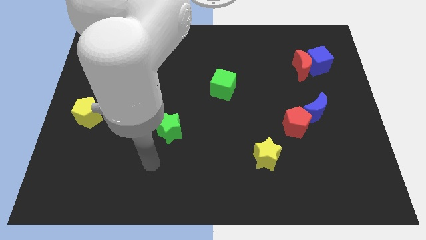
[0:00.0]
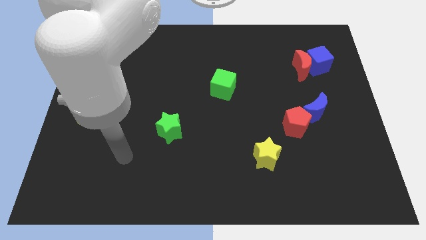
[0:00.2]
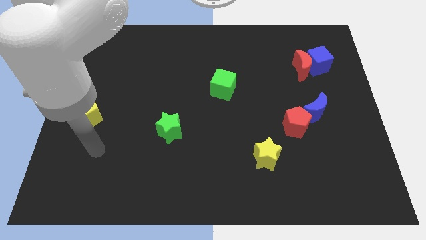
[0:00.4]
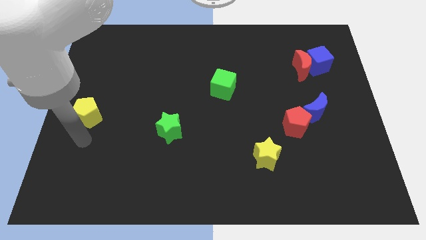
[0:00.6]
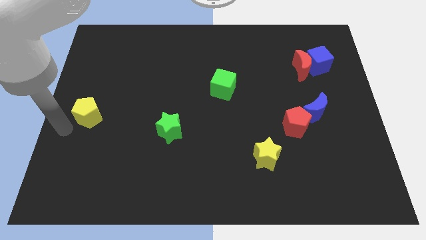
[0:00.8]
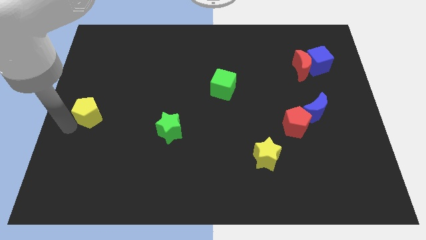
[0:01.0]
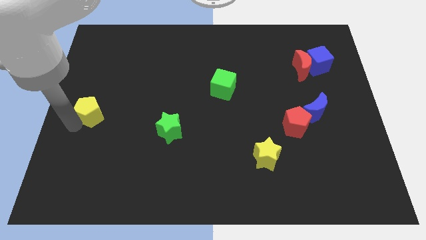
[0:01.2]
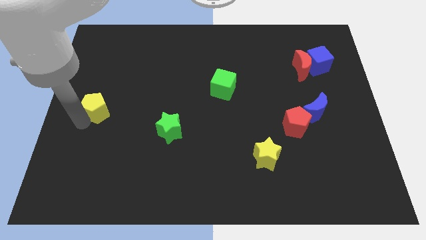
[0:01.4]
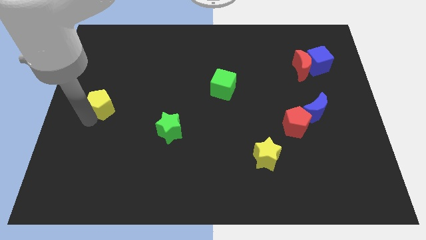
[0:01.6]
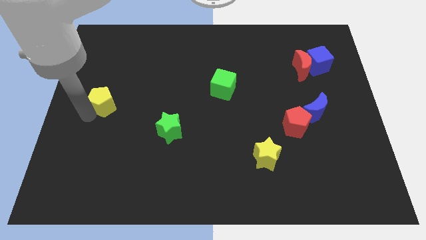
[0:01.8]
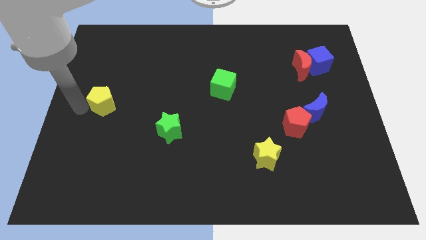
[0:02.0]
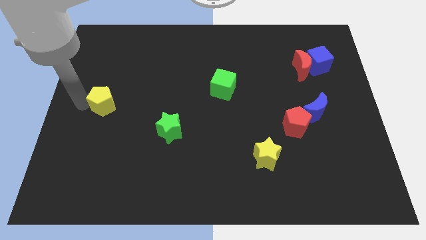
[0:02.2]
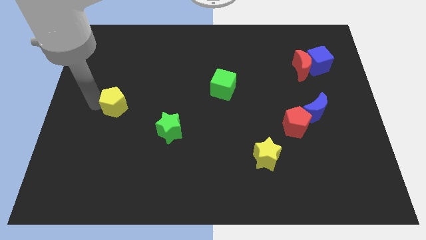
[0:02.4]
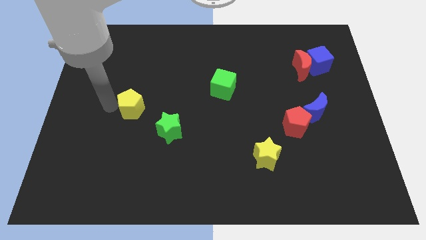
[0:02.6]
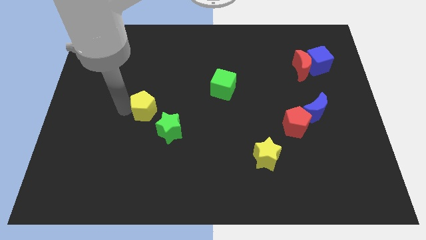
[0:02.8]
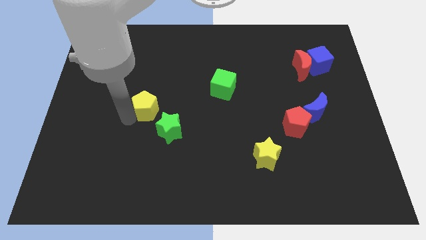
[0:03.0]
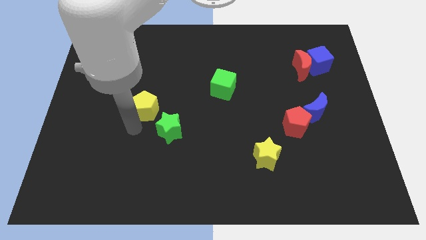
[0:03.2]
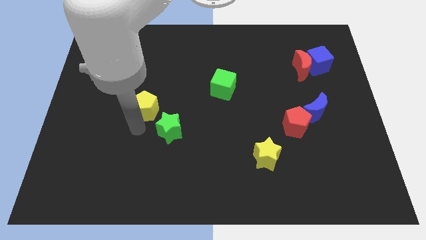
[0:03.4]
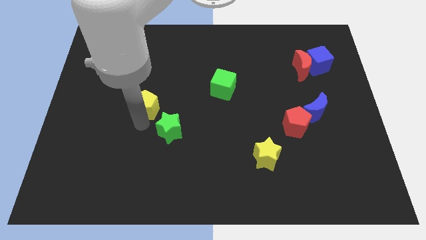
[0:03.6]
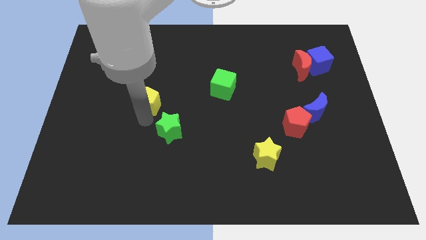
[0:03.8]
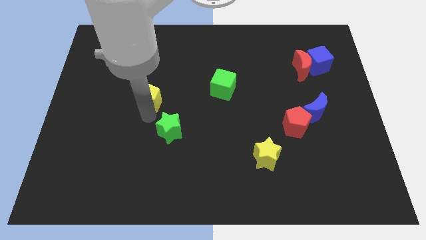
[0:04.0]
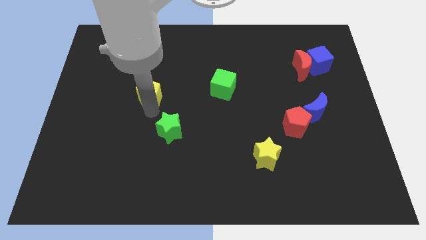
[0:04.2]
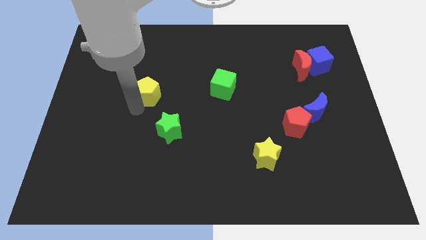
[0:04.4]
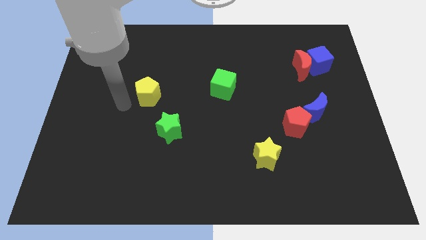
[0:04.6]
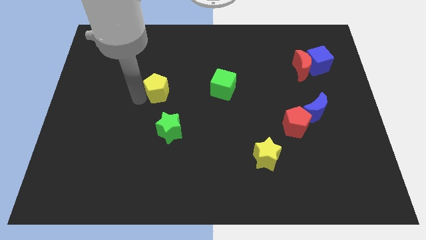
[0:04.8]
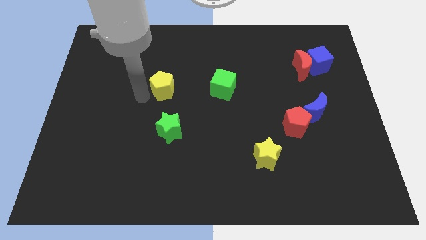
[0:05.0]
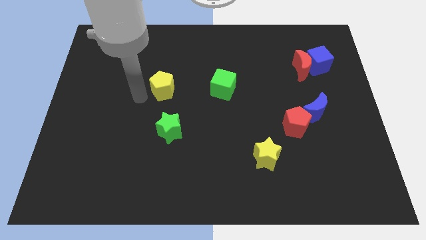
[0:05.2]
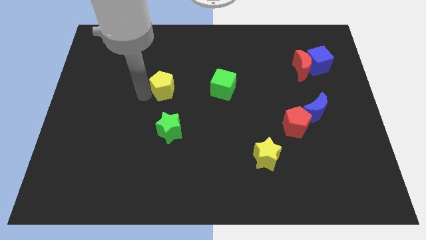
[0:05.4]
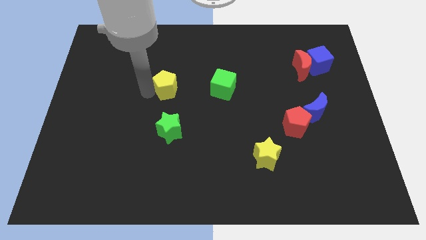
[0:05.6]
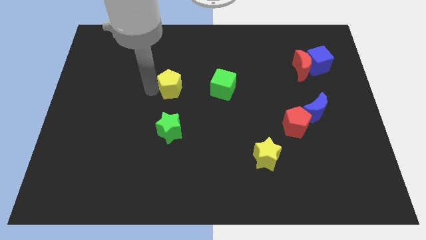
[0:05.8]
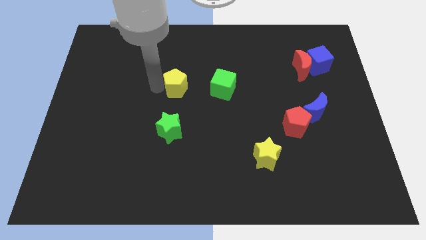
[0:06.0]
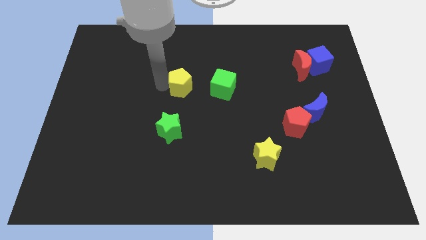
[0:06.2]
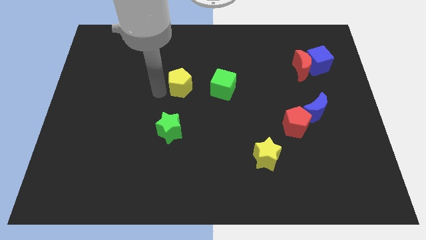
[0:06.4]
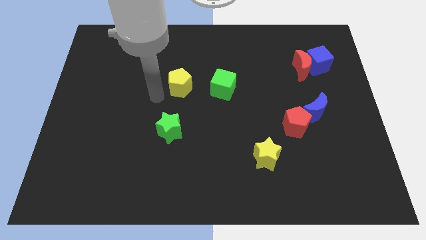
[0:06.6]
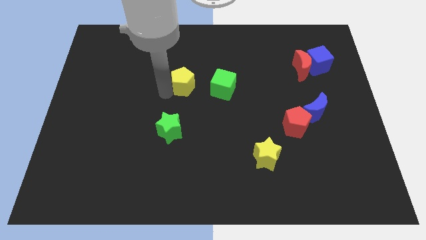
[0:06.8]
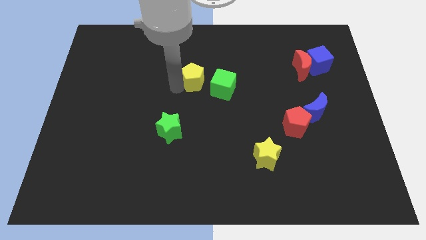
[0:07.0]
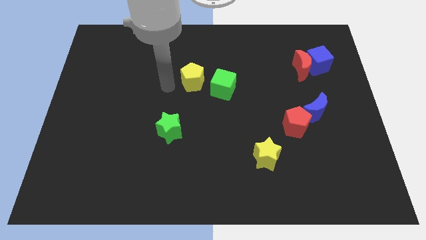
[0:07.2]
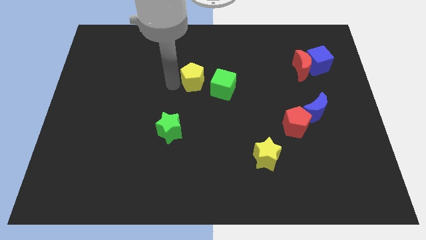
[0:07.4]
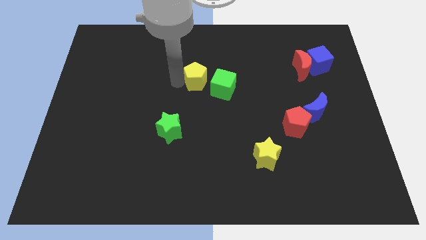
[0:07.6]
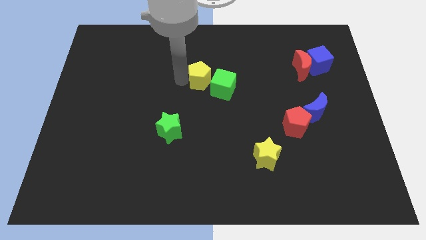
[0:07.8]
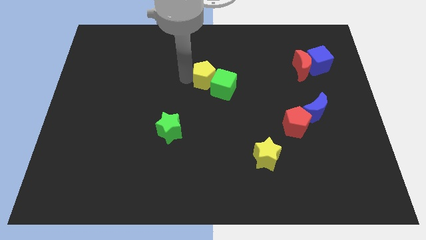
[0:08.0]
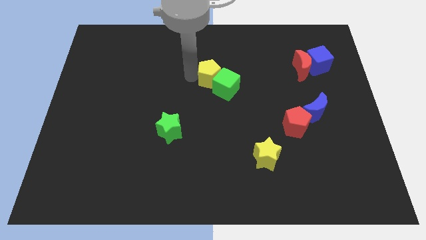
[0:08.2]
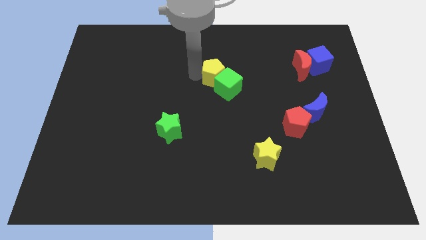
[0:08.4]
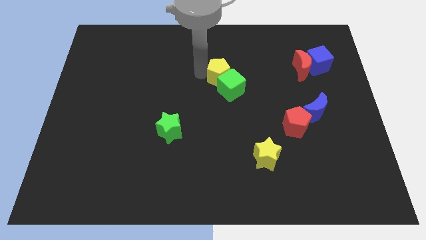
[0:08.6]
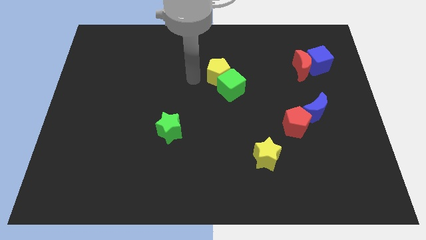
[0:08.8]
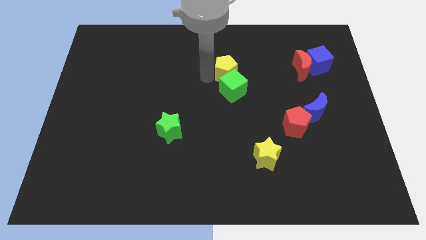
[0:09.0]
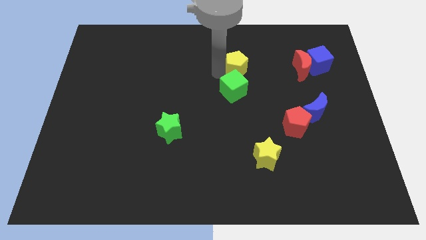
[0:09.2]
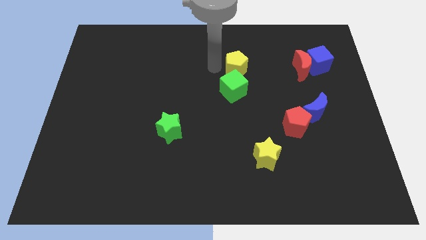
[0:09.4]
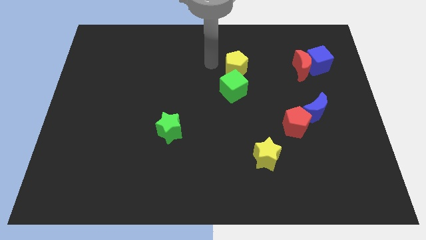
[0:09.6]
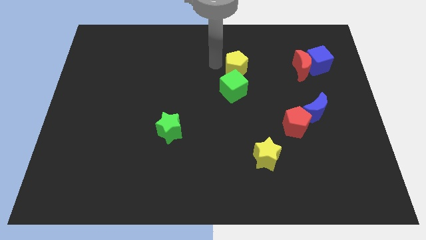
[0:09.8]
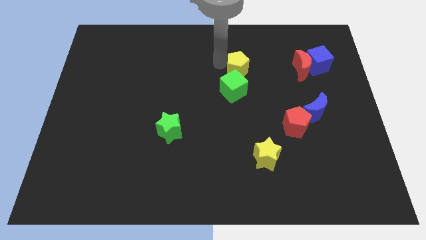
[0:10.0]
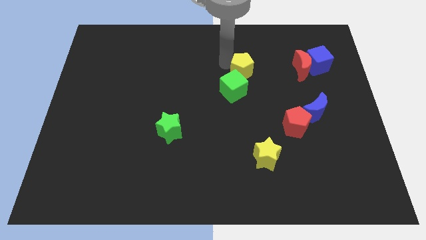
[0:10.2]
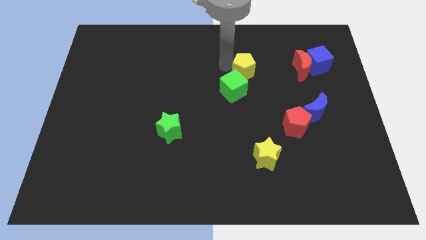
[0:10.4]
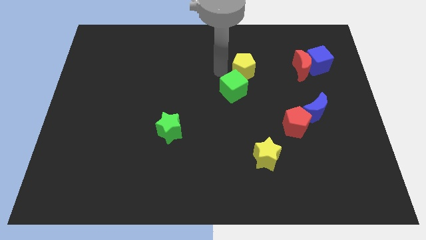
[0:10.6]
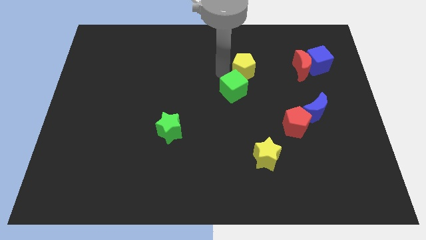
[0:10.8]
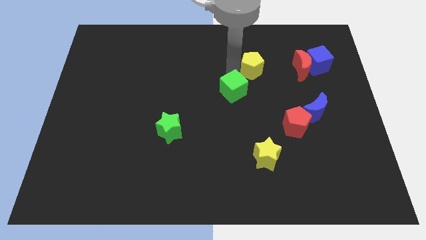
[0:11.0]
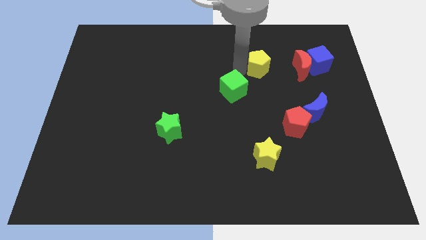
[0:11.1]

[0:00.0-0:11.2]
slide the yellow pentagon to the left side of the blue cube

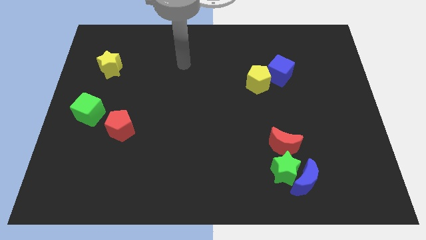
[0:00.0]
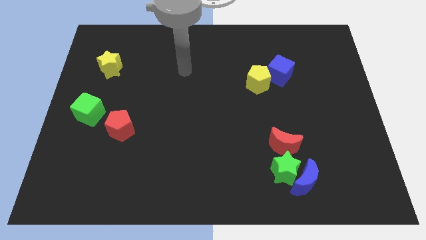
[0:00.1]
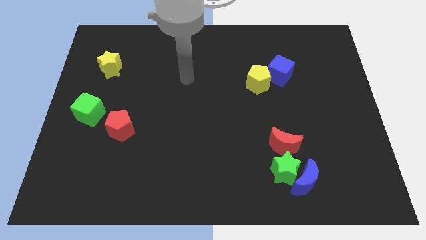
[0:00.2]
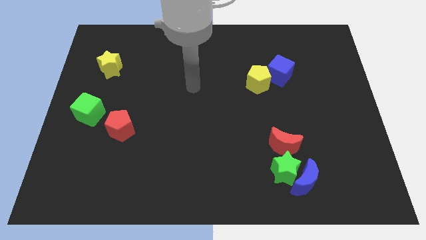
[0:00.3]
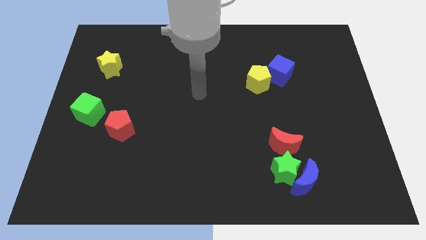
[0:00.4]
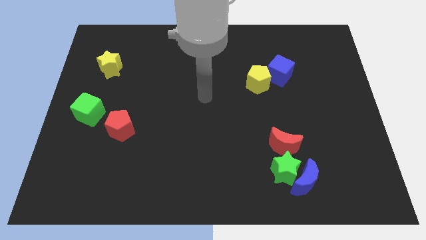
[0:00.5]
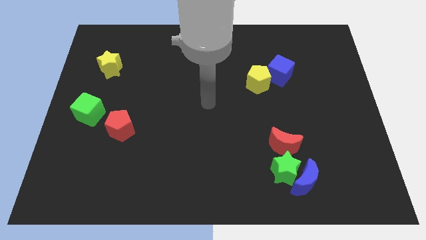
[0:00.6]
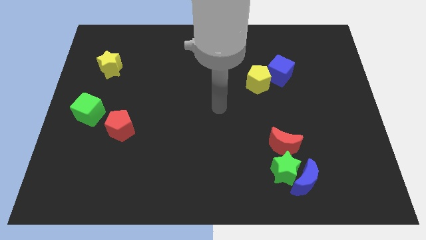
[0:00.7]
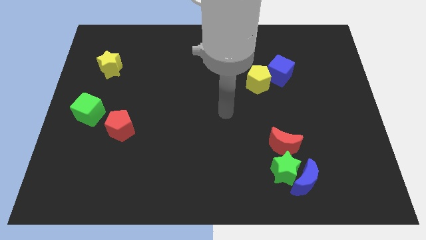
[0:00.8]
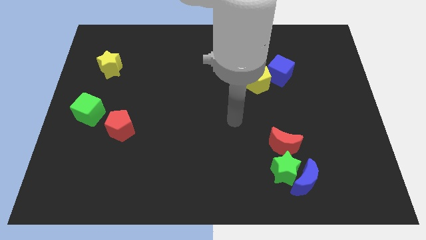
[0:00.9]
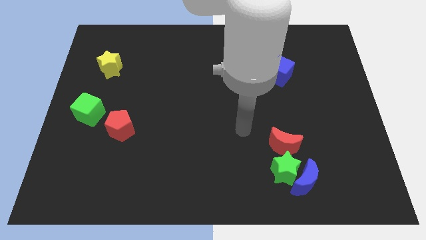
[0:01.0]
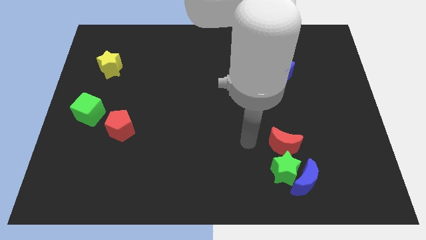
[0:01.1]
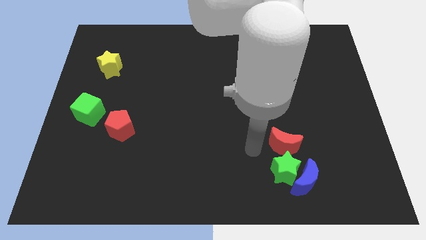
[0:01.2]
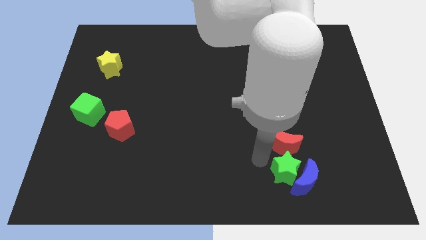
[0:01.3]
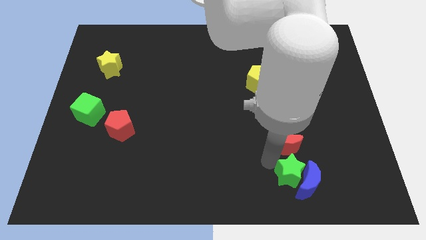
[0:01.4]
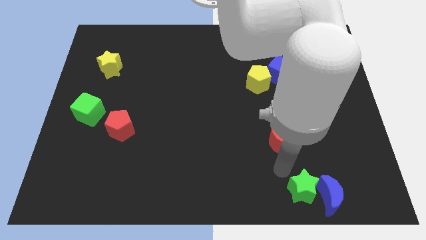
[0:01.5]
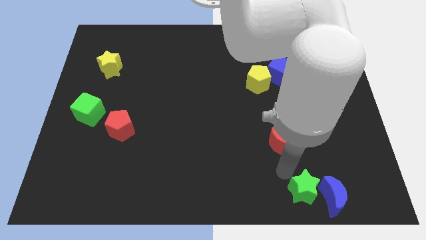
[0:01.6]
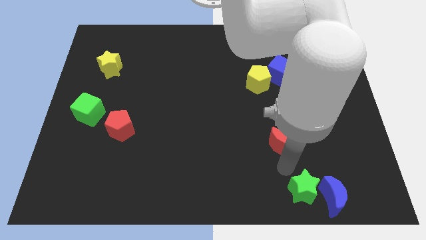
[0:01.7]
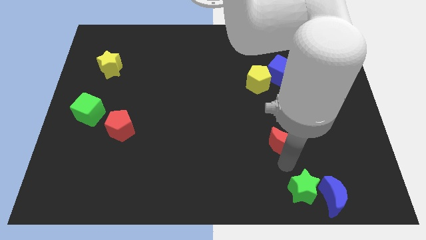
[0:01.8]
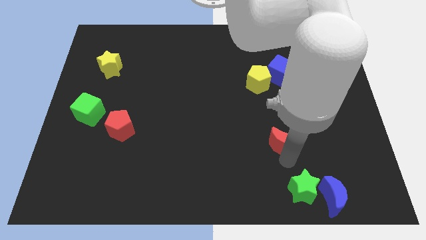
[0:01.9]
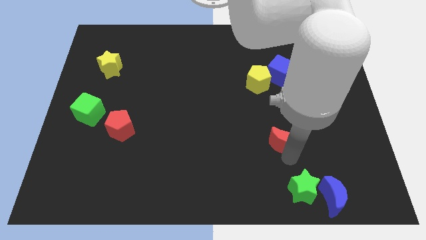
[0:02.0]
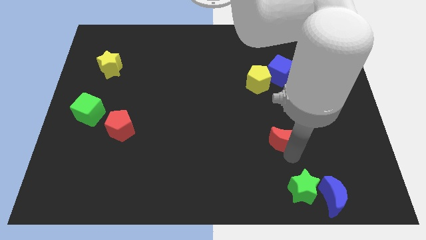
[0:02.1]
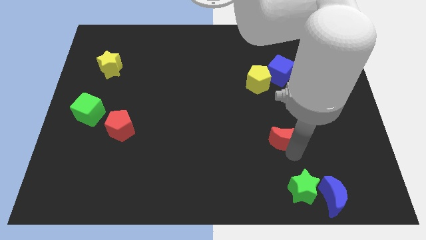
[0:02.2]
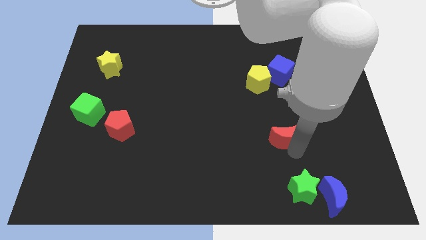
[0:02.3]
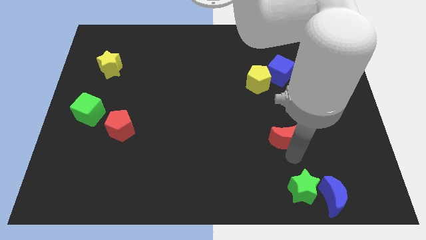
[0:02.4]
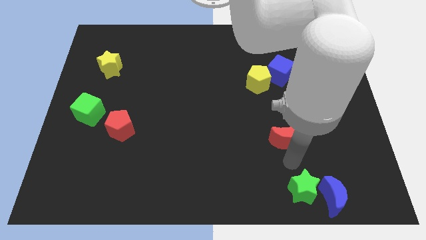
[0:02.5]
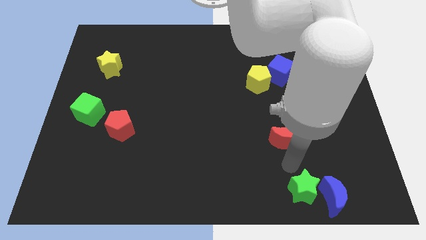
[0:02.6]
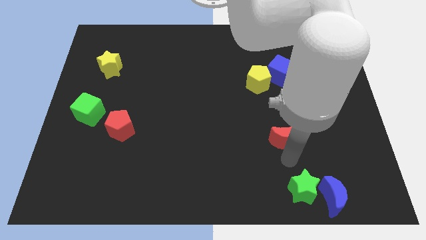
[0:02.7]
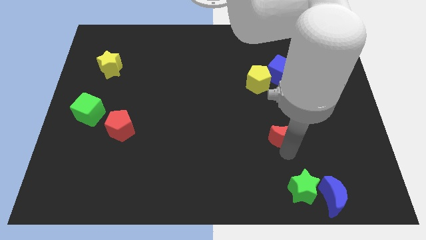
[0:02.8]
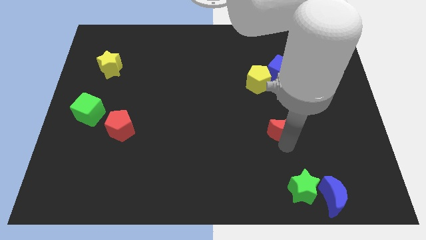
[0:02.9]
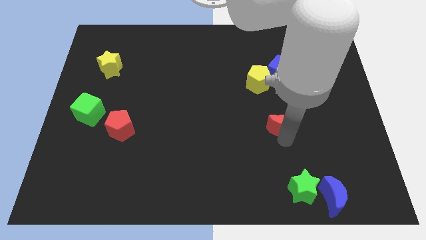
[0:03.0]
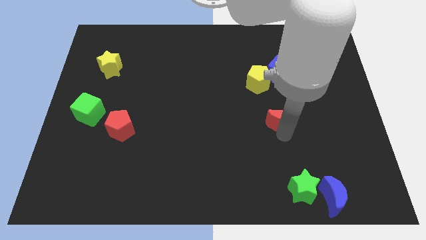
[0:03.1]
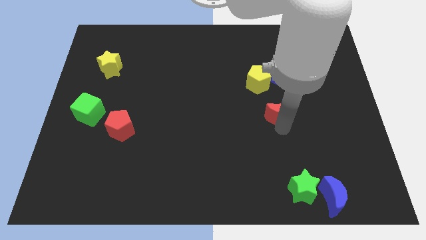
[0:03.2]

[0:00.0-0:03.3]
put the red moon to the bottom right side of the yellow pentagon
